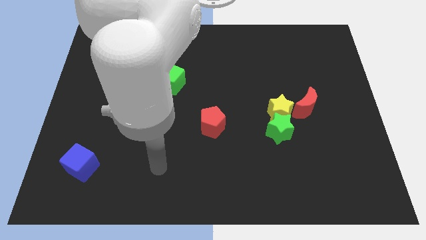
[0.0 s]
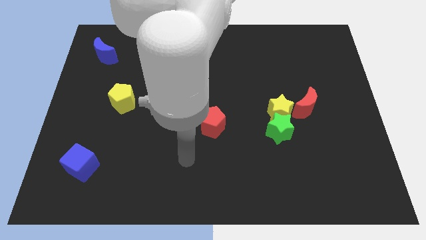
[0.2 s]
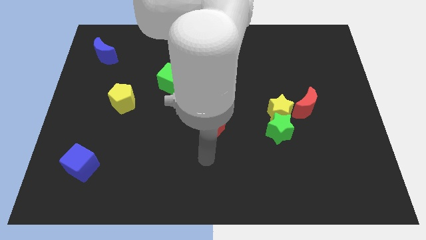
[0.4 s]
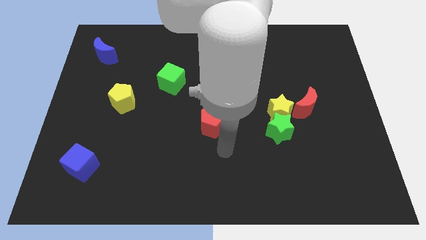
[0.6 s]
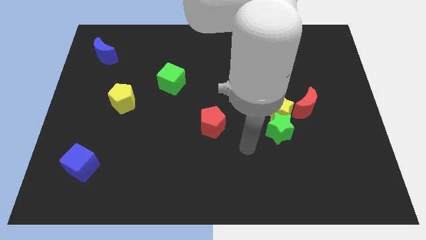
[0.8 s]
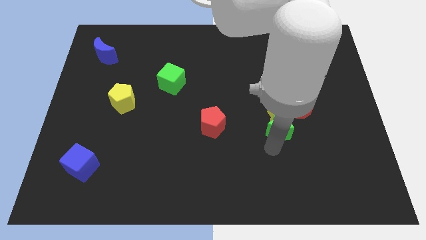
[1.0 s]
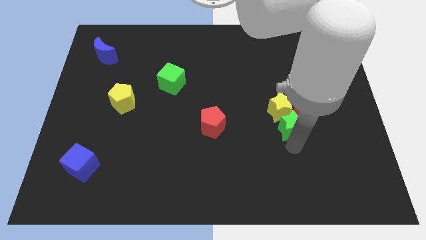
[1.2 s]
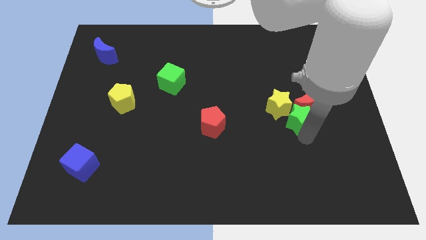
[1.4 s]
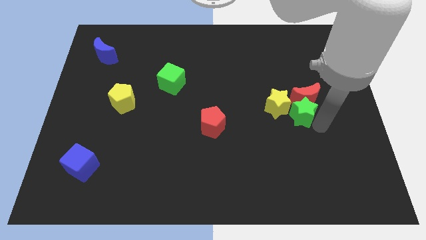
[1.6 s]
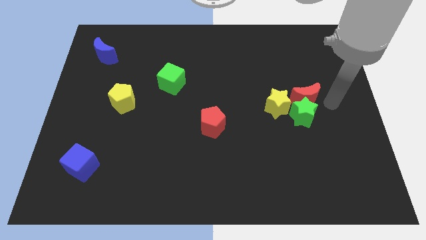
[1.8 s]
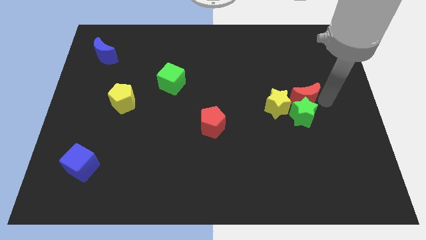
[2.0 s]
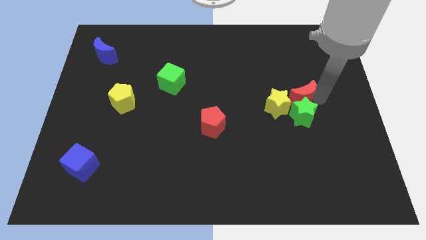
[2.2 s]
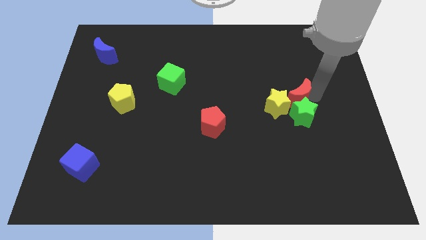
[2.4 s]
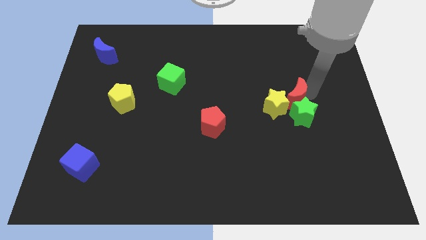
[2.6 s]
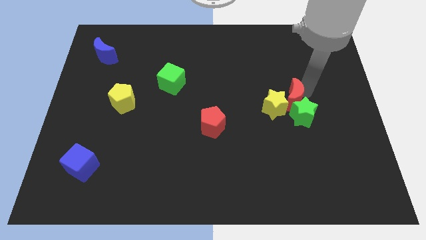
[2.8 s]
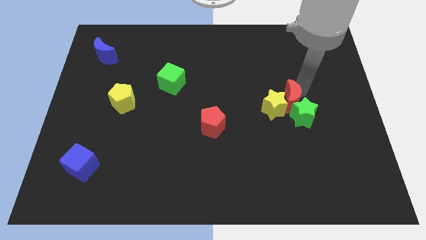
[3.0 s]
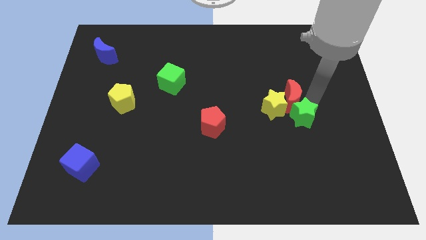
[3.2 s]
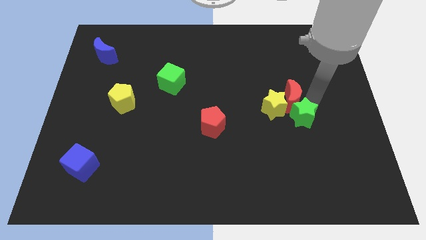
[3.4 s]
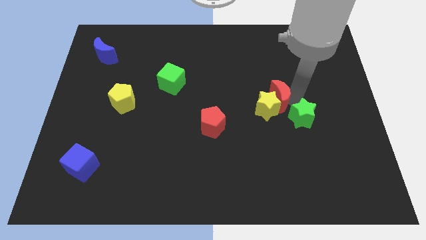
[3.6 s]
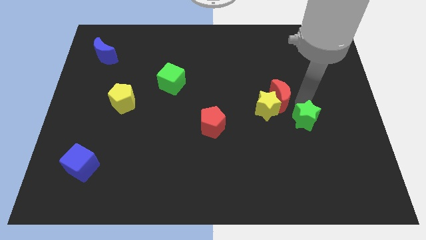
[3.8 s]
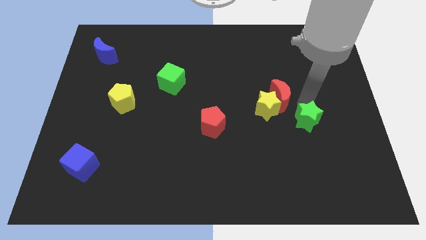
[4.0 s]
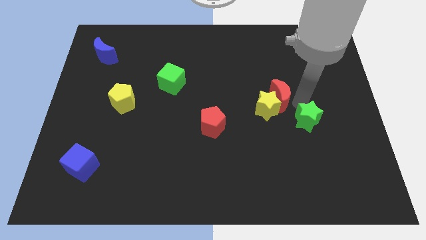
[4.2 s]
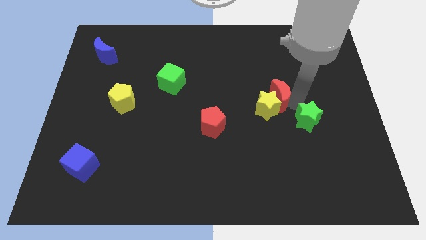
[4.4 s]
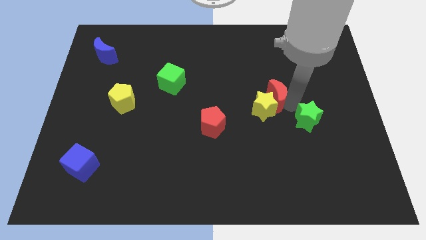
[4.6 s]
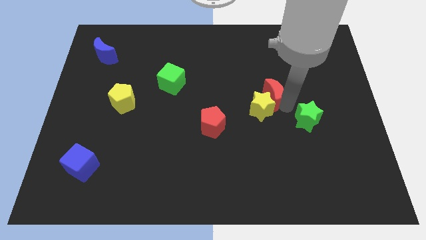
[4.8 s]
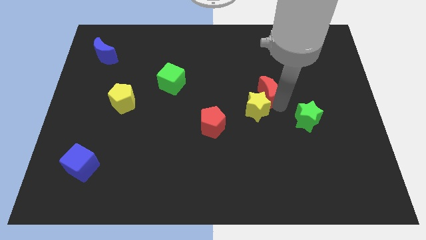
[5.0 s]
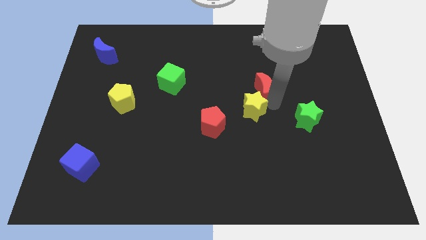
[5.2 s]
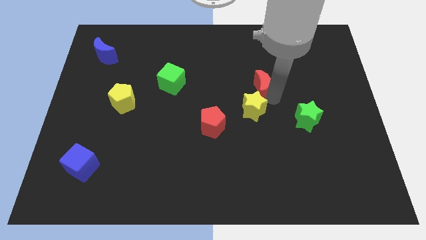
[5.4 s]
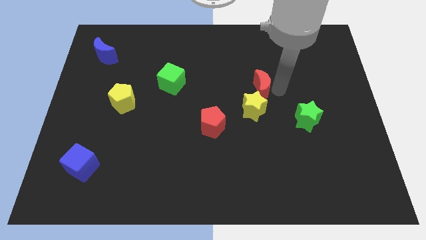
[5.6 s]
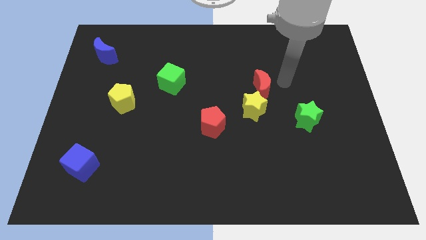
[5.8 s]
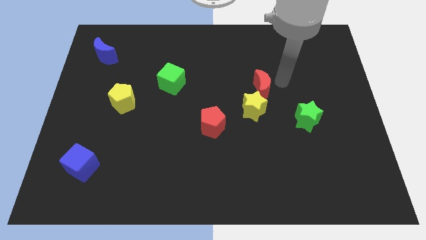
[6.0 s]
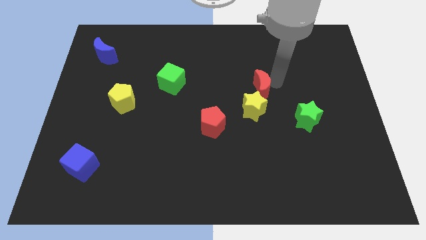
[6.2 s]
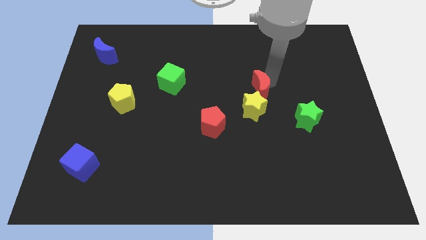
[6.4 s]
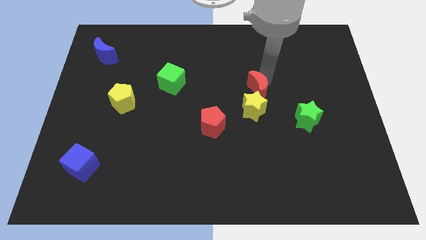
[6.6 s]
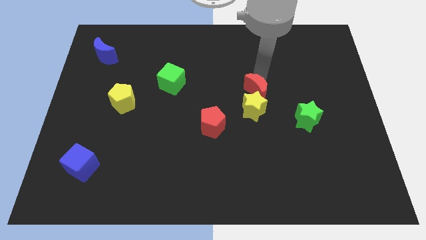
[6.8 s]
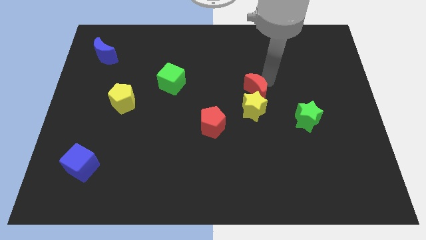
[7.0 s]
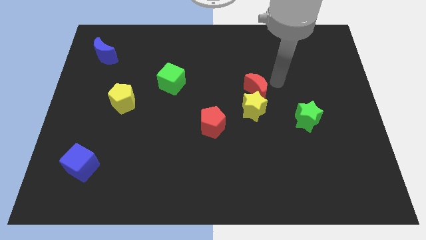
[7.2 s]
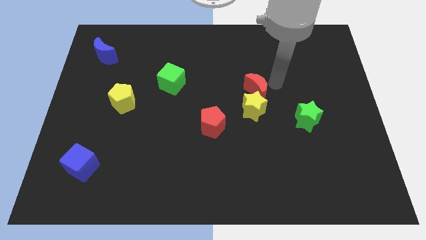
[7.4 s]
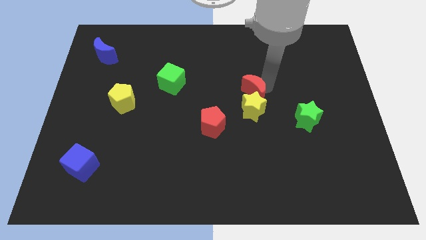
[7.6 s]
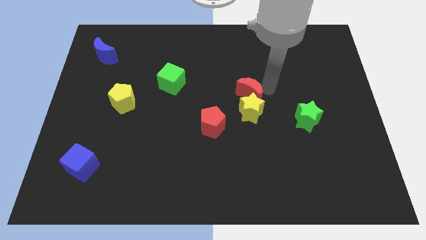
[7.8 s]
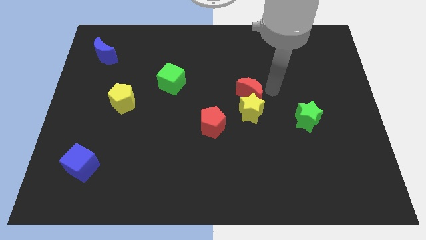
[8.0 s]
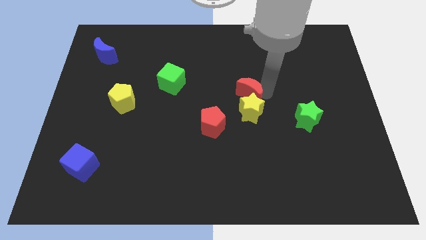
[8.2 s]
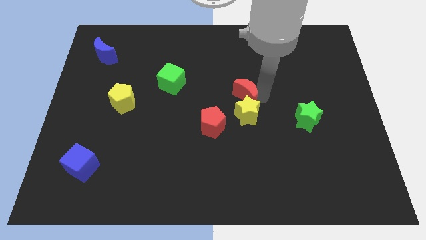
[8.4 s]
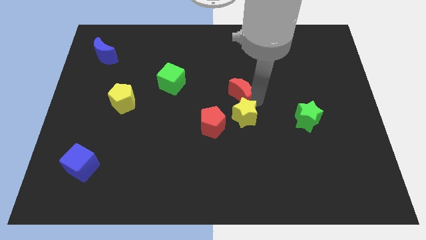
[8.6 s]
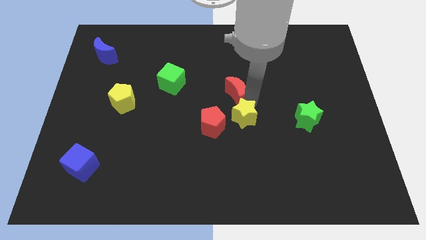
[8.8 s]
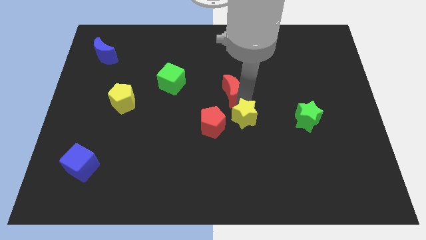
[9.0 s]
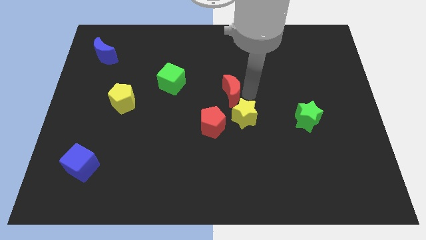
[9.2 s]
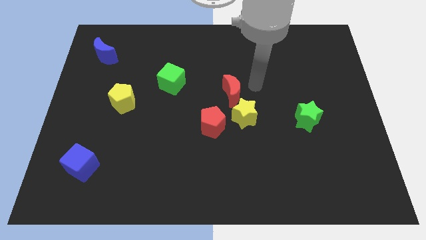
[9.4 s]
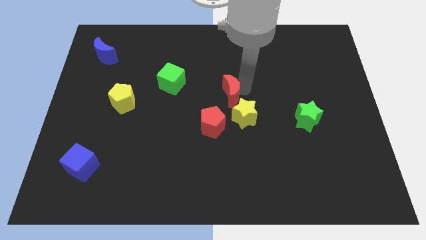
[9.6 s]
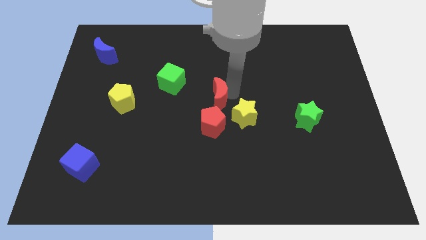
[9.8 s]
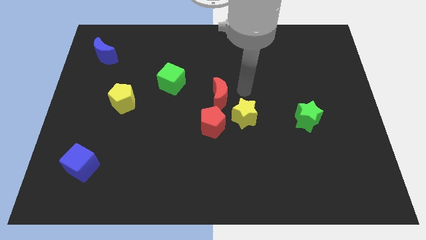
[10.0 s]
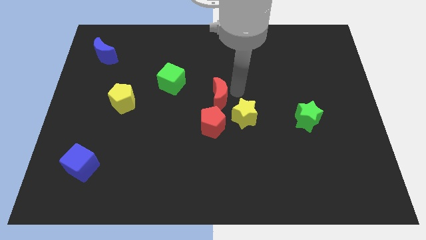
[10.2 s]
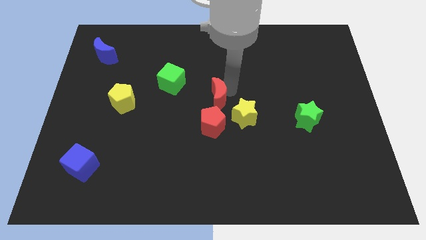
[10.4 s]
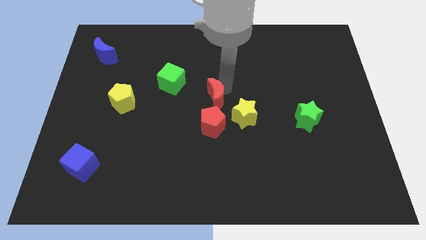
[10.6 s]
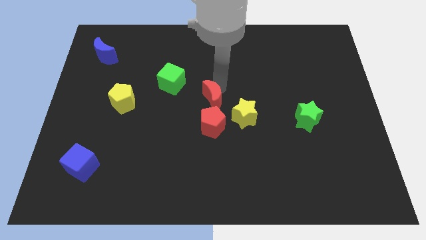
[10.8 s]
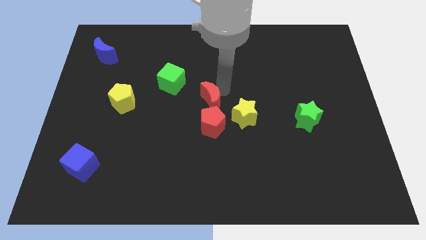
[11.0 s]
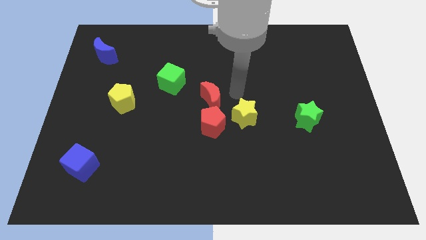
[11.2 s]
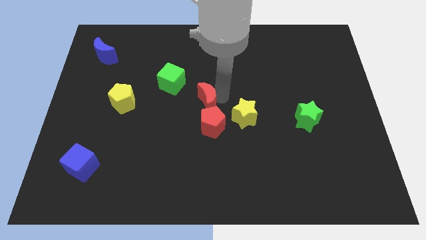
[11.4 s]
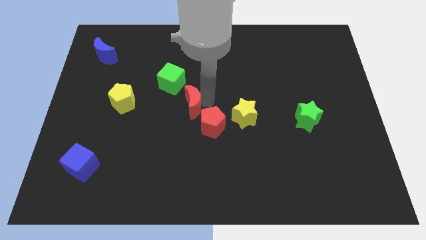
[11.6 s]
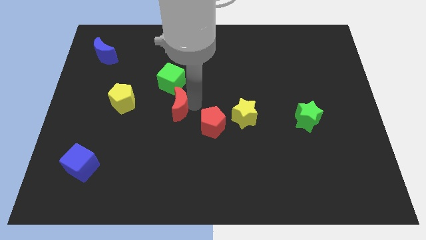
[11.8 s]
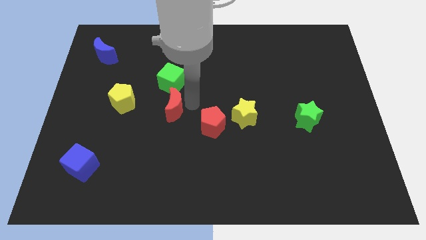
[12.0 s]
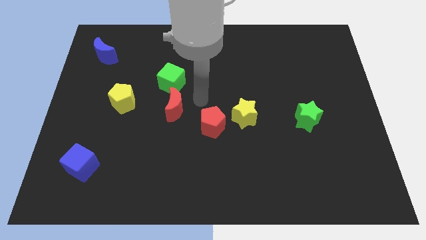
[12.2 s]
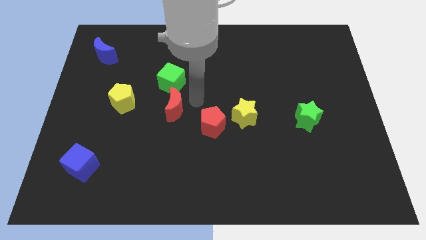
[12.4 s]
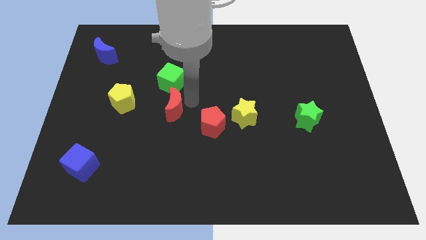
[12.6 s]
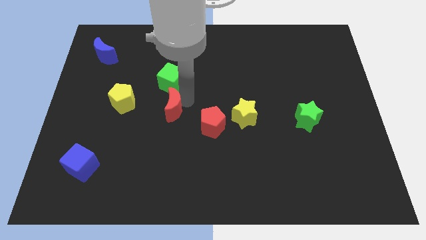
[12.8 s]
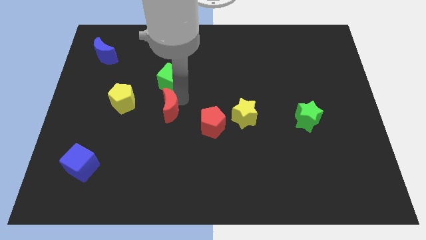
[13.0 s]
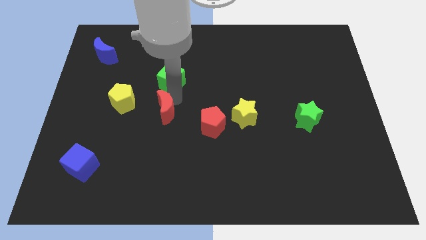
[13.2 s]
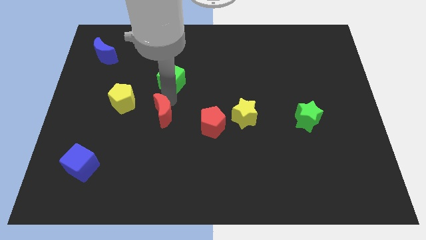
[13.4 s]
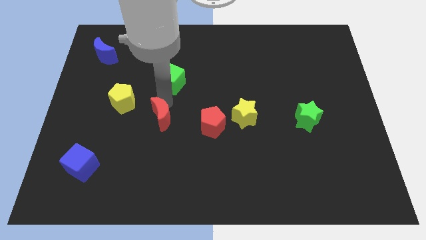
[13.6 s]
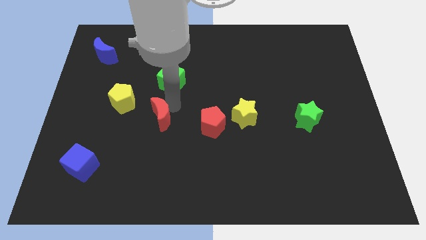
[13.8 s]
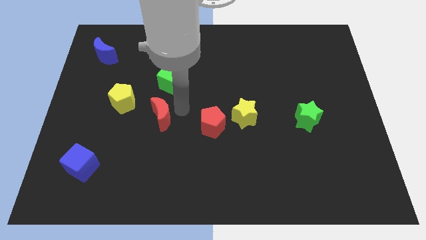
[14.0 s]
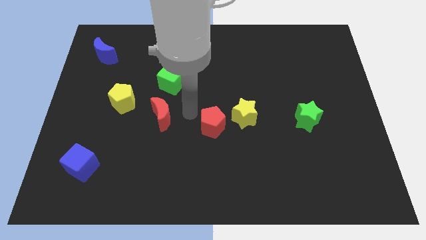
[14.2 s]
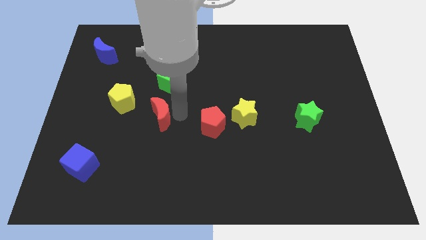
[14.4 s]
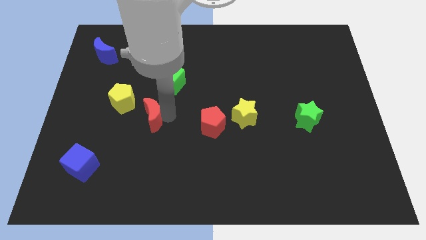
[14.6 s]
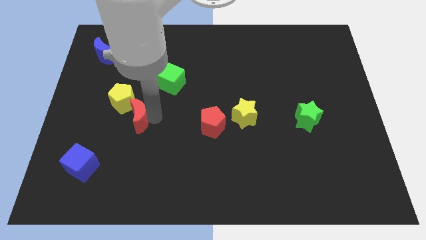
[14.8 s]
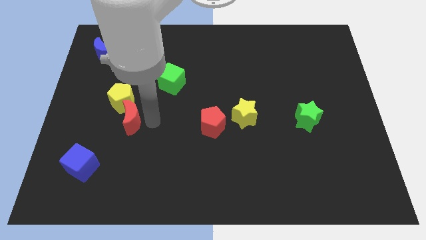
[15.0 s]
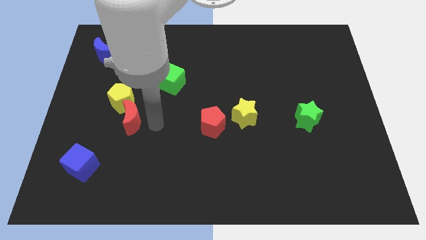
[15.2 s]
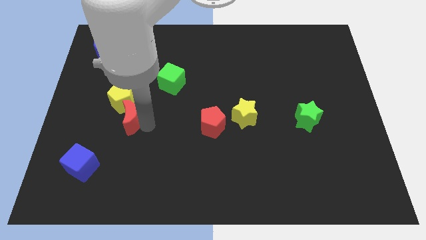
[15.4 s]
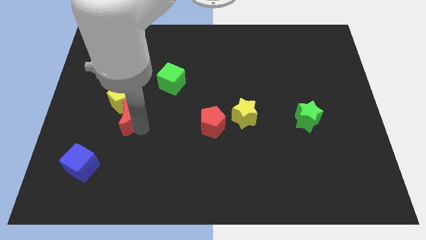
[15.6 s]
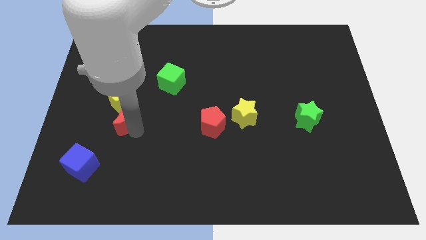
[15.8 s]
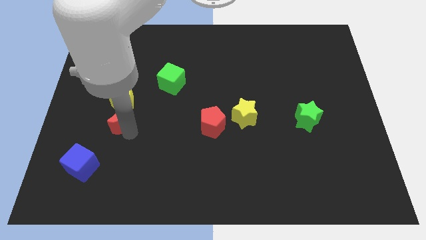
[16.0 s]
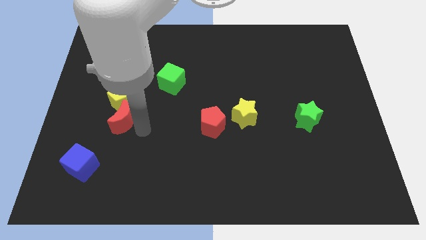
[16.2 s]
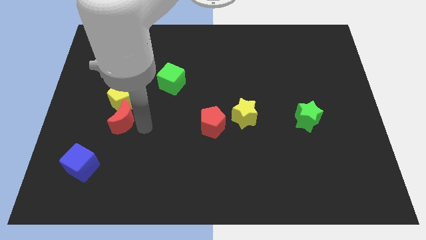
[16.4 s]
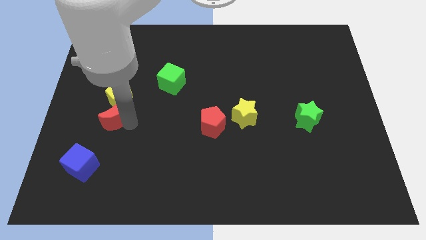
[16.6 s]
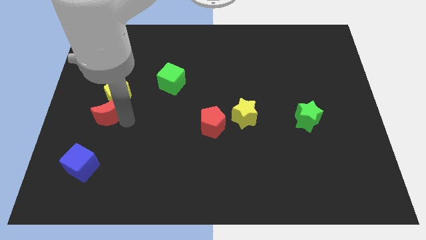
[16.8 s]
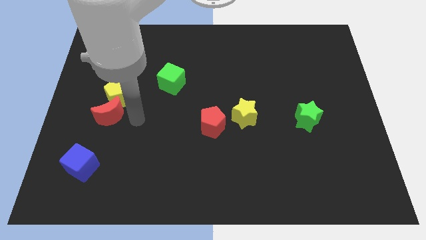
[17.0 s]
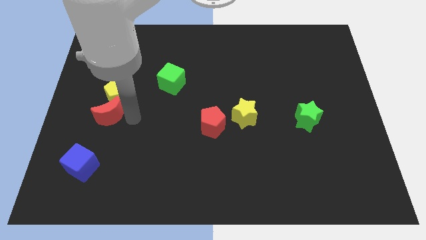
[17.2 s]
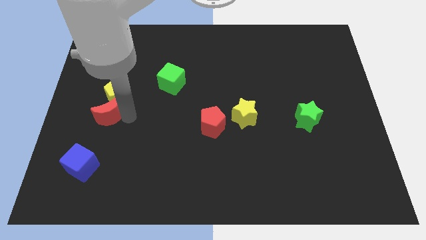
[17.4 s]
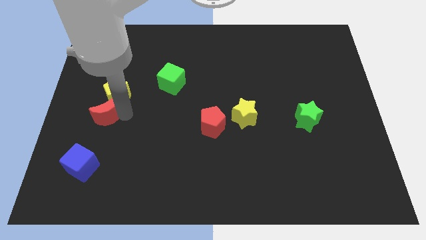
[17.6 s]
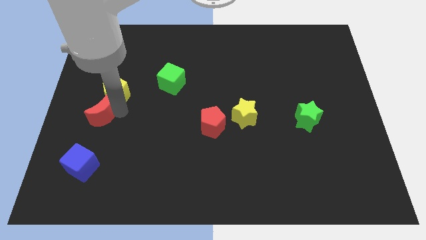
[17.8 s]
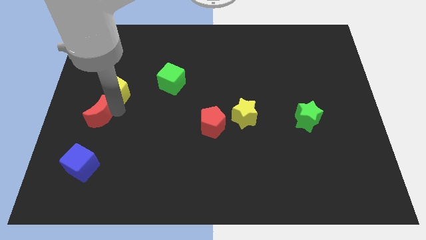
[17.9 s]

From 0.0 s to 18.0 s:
push the red moon to the center left
